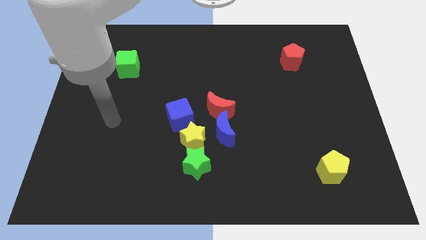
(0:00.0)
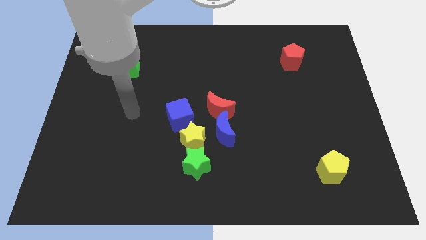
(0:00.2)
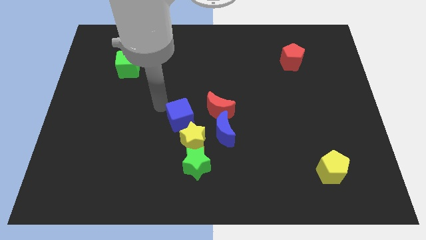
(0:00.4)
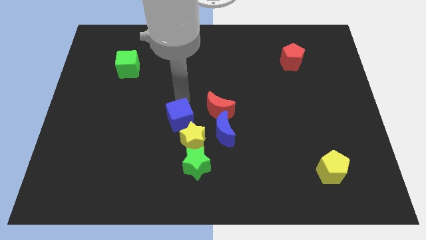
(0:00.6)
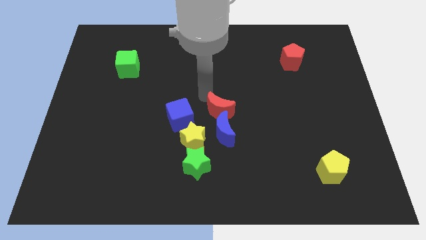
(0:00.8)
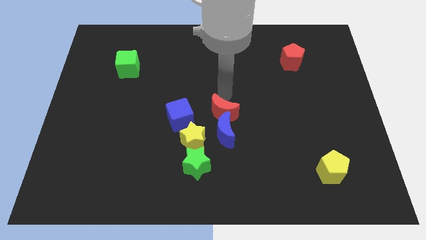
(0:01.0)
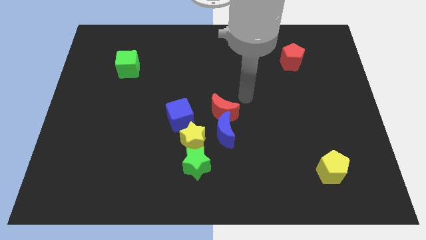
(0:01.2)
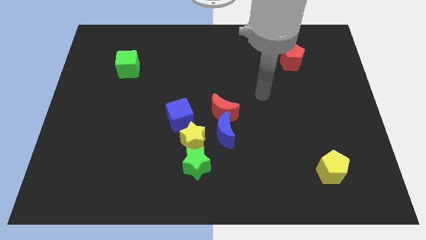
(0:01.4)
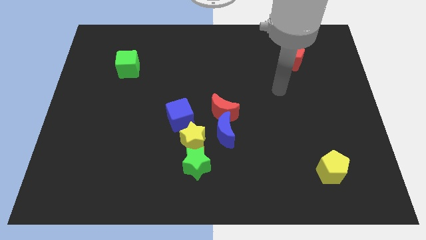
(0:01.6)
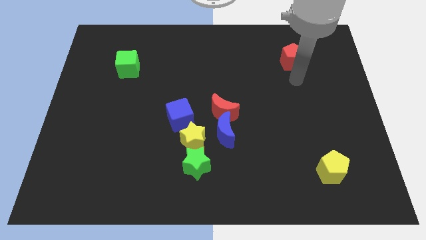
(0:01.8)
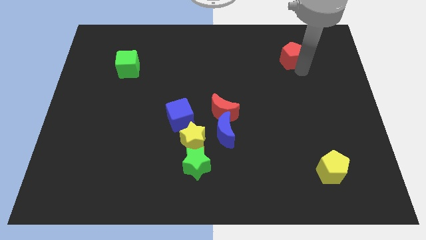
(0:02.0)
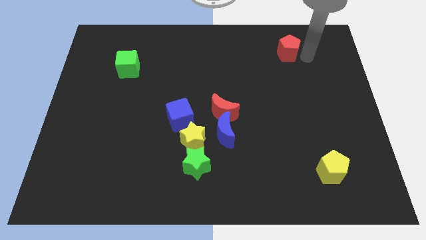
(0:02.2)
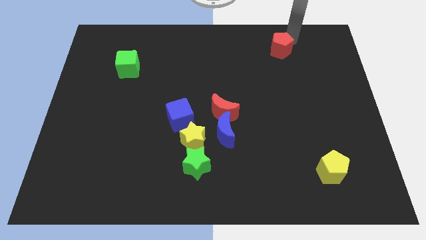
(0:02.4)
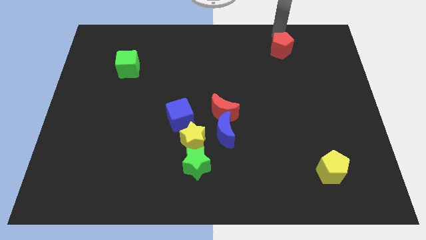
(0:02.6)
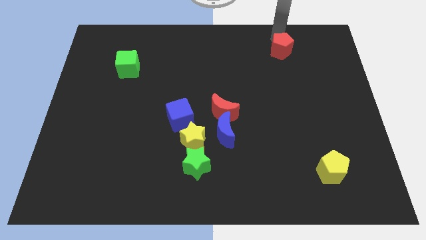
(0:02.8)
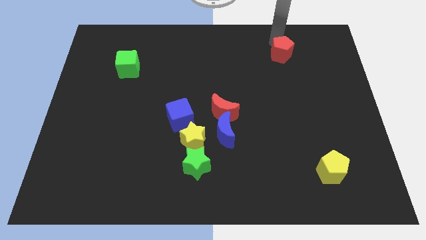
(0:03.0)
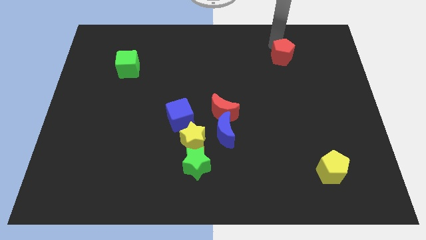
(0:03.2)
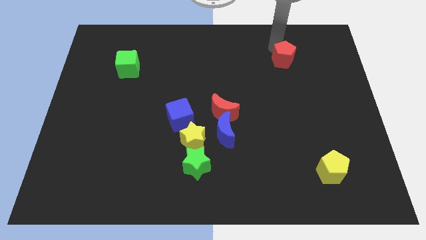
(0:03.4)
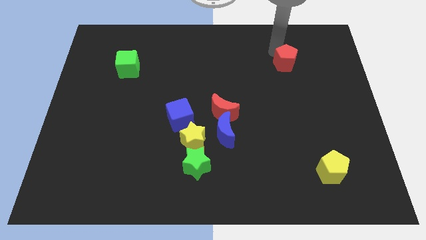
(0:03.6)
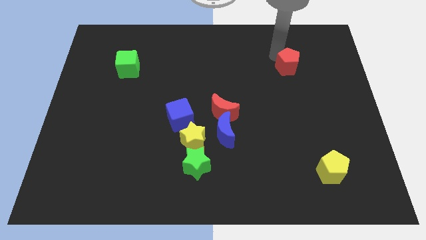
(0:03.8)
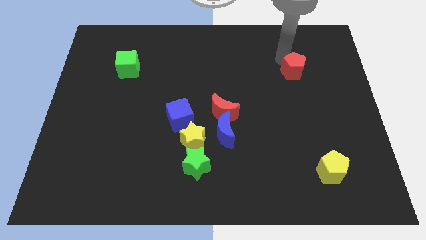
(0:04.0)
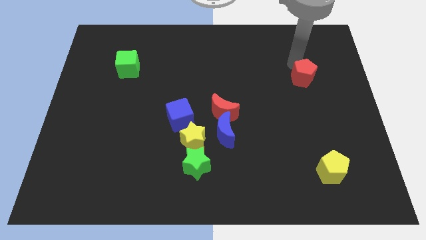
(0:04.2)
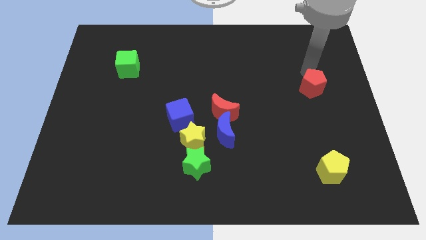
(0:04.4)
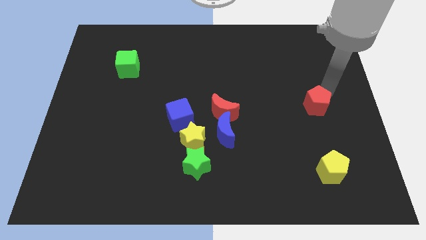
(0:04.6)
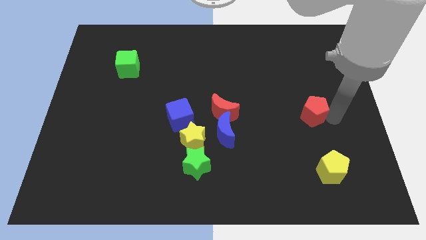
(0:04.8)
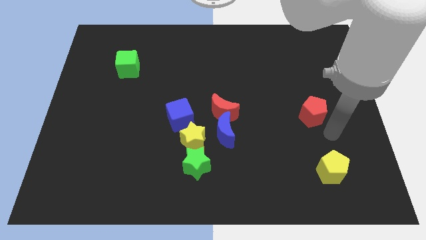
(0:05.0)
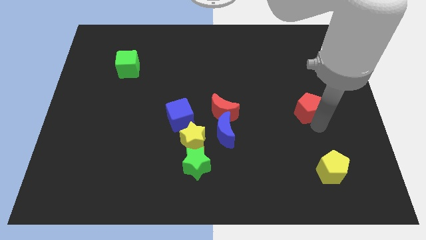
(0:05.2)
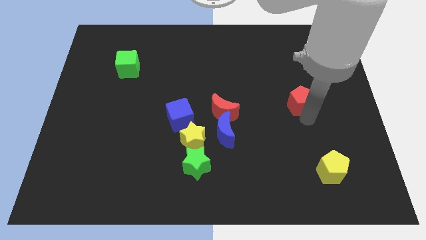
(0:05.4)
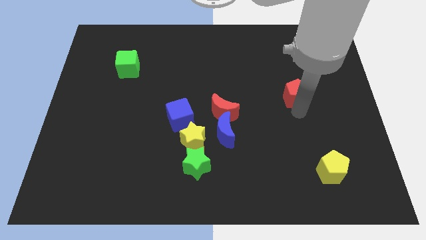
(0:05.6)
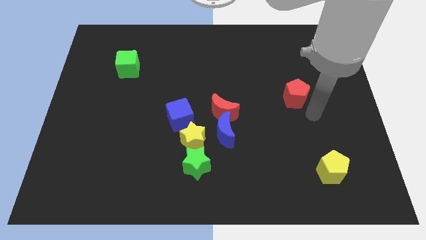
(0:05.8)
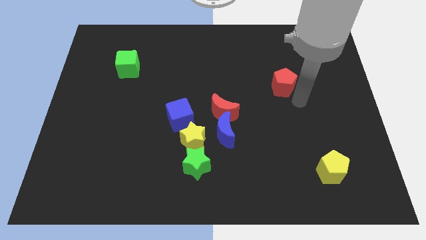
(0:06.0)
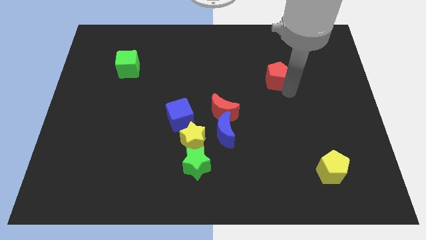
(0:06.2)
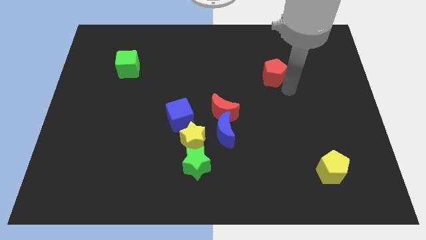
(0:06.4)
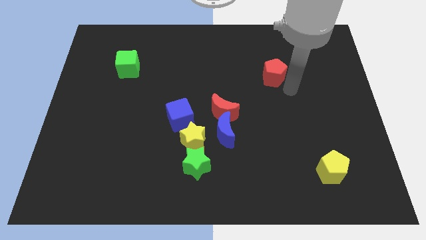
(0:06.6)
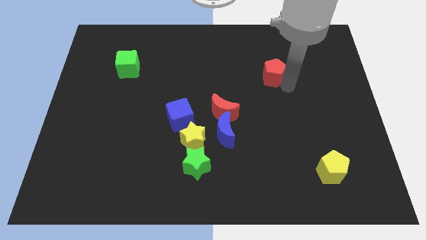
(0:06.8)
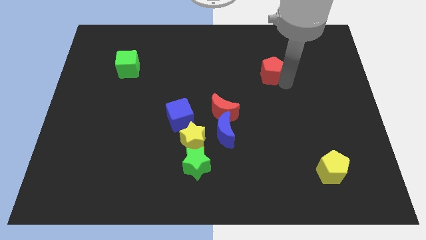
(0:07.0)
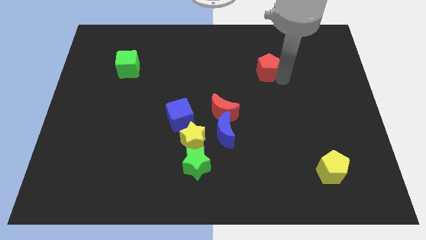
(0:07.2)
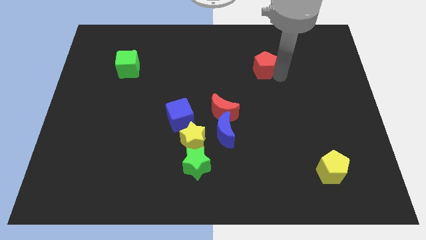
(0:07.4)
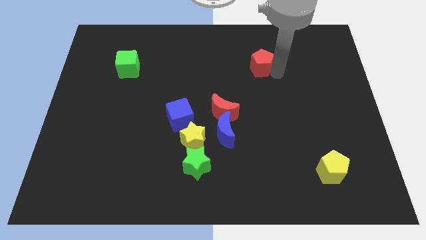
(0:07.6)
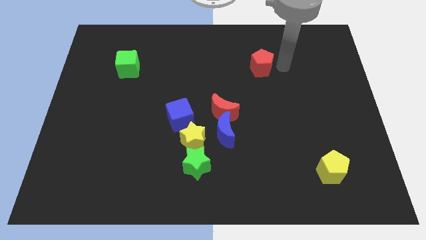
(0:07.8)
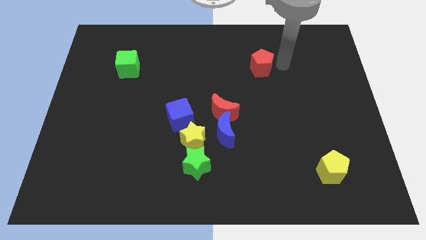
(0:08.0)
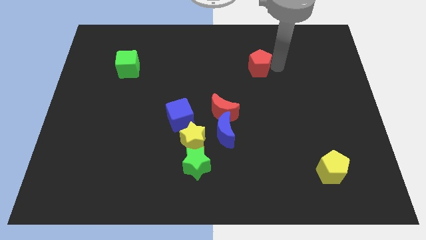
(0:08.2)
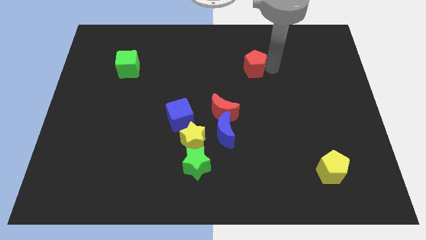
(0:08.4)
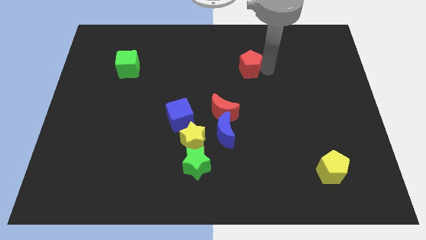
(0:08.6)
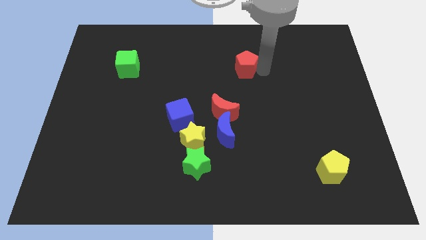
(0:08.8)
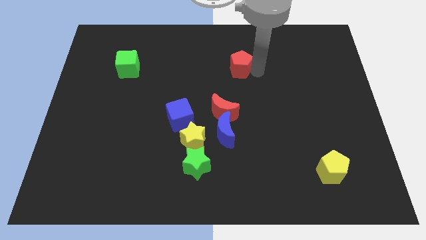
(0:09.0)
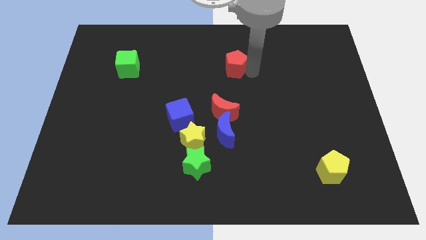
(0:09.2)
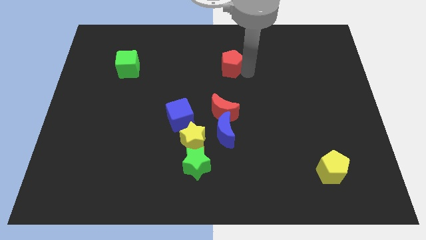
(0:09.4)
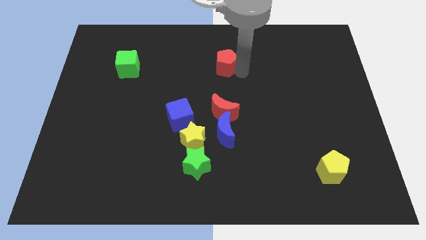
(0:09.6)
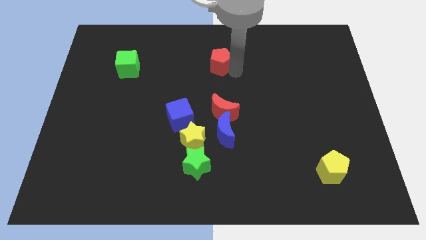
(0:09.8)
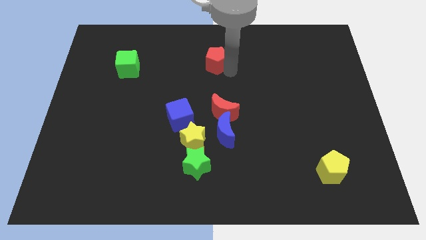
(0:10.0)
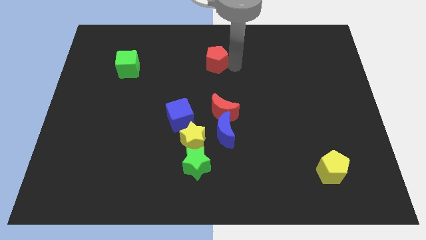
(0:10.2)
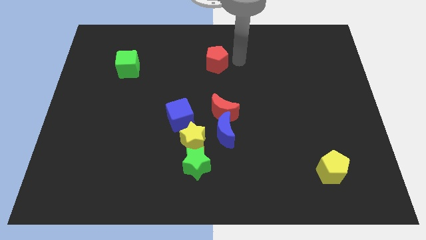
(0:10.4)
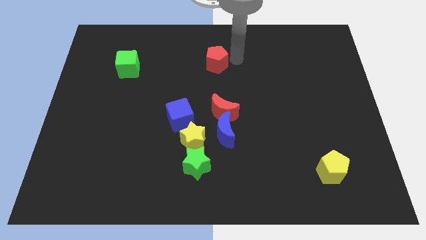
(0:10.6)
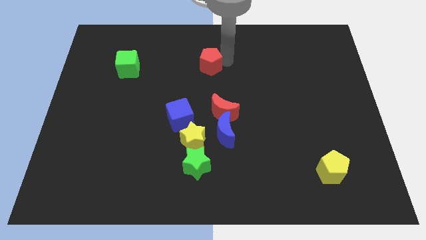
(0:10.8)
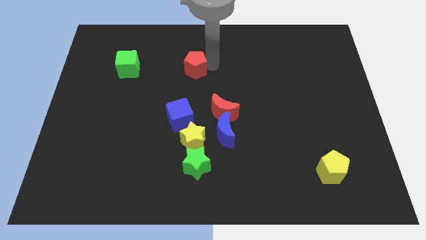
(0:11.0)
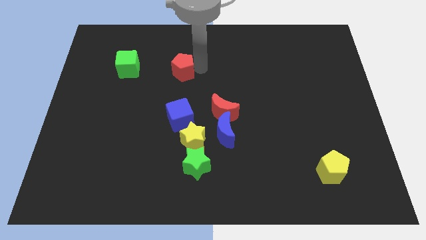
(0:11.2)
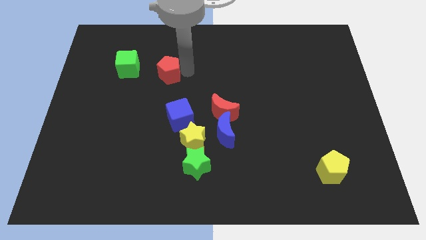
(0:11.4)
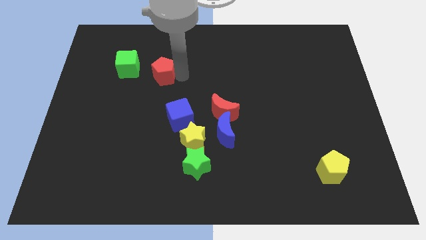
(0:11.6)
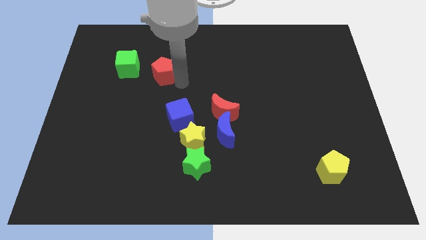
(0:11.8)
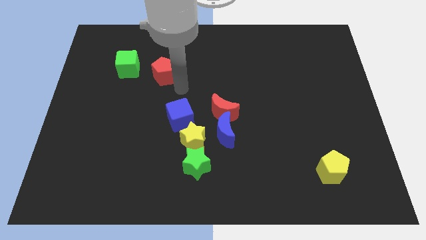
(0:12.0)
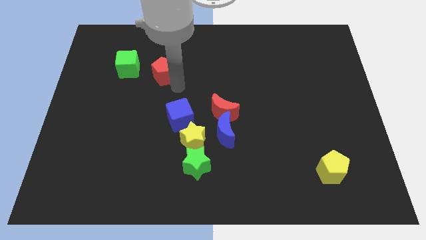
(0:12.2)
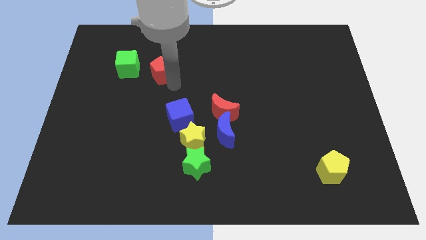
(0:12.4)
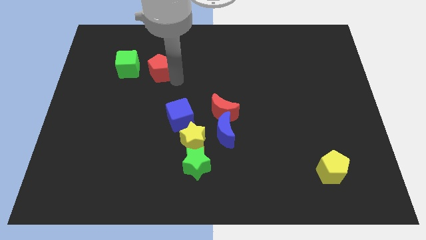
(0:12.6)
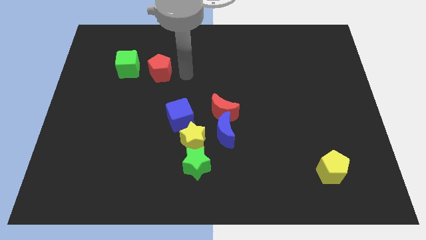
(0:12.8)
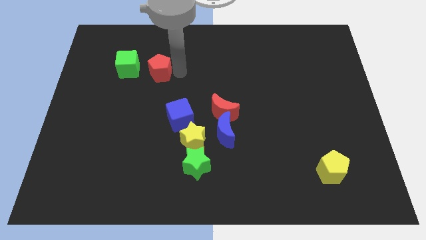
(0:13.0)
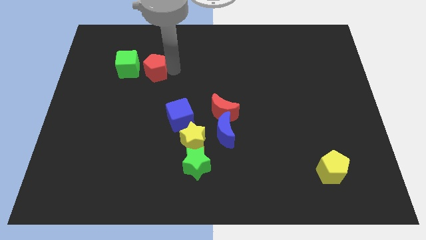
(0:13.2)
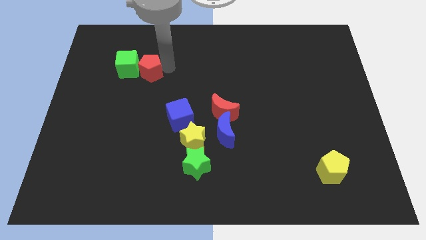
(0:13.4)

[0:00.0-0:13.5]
push the red pentagon towards the green cube
